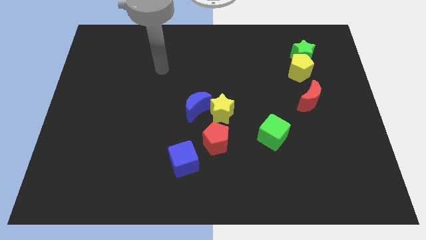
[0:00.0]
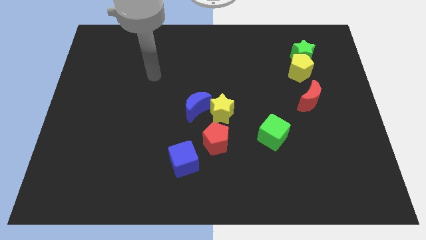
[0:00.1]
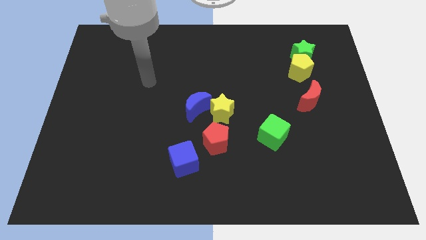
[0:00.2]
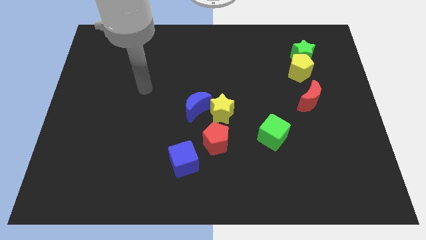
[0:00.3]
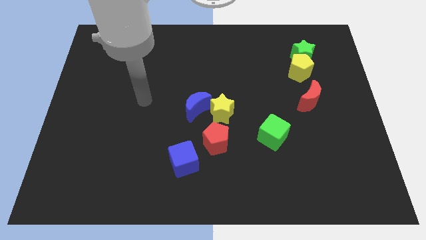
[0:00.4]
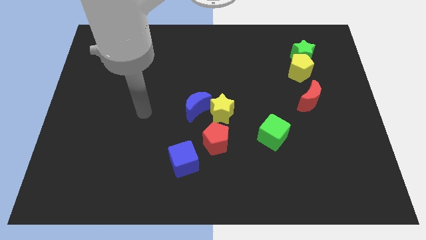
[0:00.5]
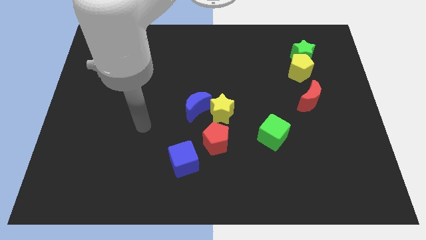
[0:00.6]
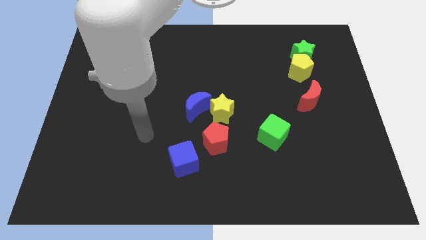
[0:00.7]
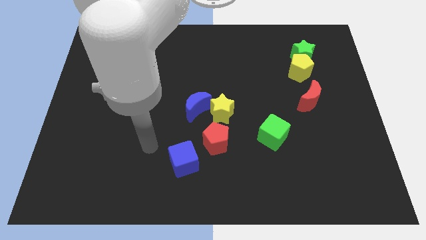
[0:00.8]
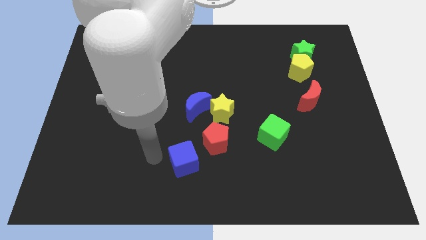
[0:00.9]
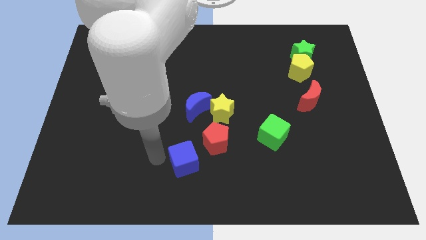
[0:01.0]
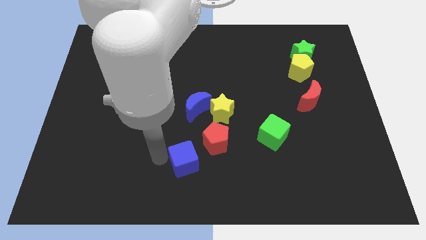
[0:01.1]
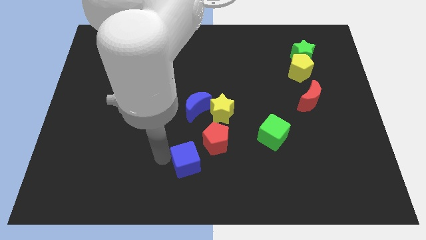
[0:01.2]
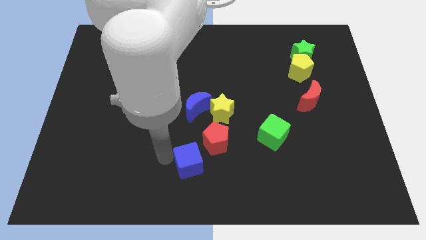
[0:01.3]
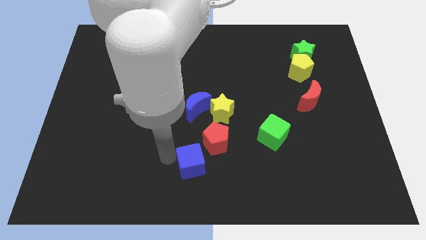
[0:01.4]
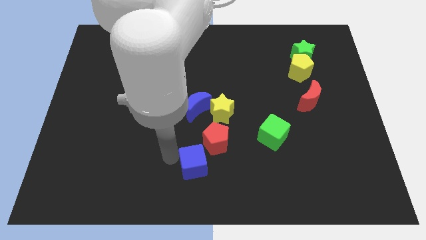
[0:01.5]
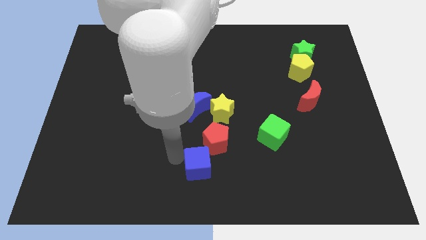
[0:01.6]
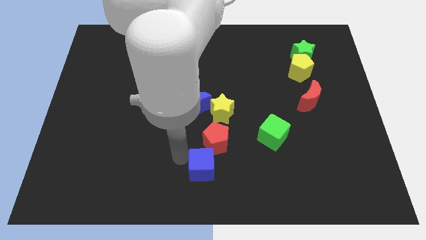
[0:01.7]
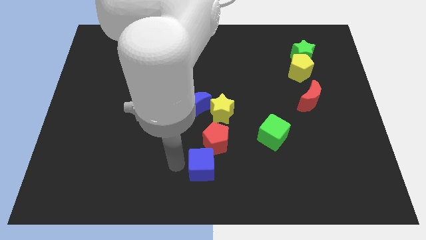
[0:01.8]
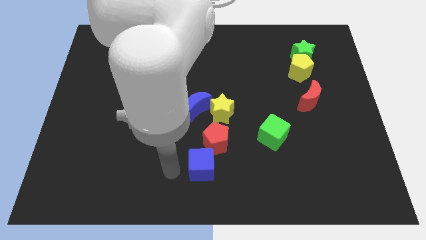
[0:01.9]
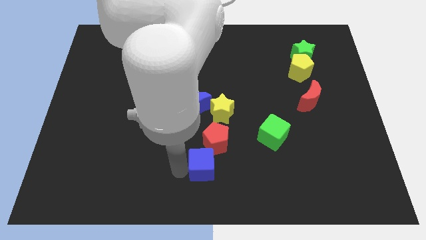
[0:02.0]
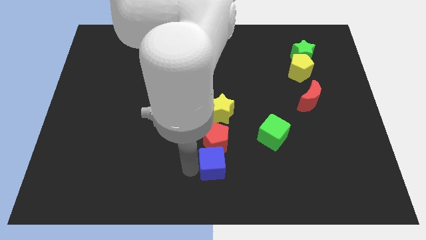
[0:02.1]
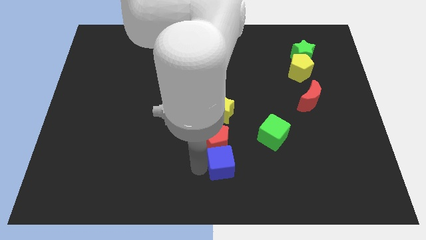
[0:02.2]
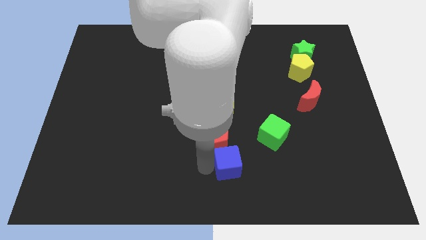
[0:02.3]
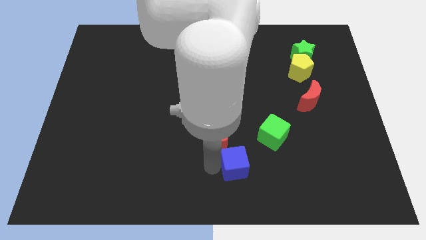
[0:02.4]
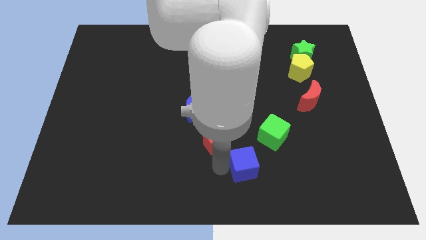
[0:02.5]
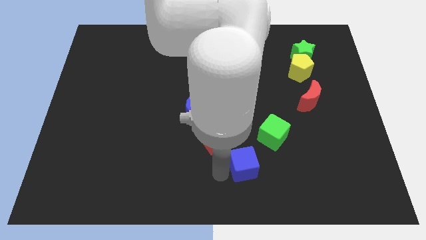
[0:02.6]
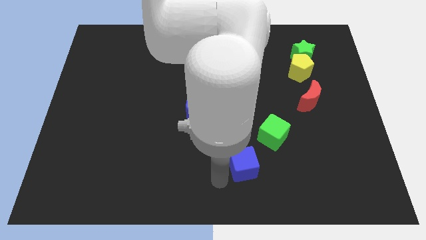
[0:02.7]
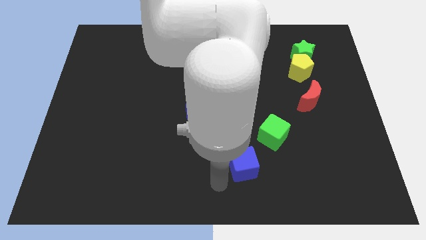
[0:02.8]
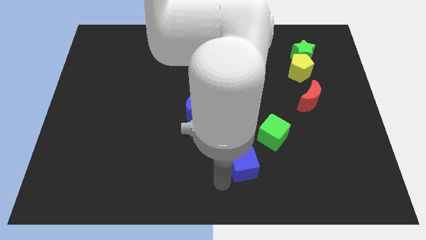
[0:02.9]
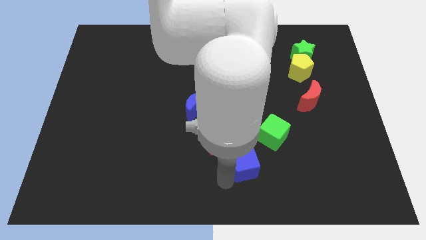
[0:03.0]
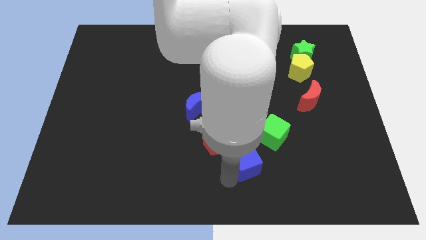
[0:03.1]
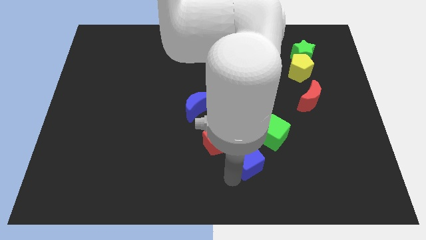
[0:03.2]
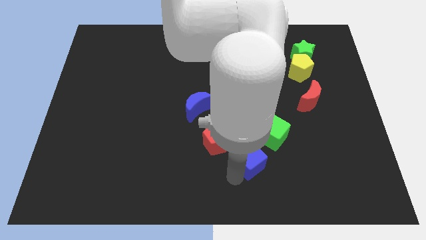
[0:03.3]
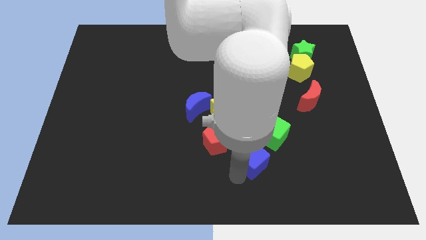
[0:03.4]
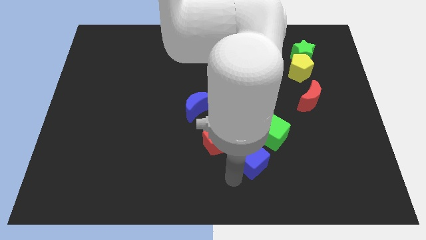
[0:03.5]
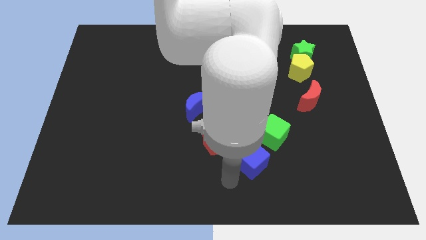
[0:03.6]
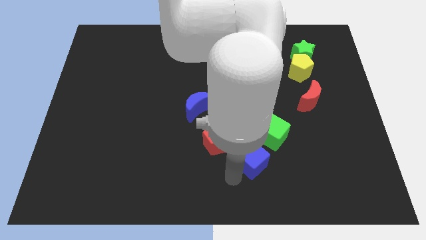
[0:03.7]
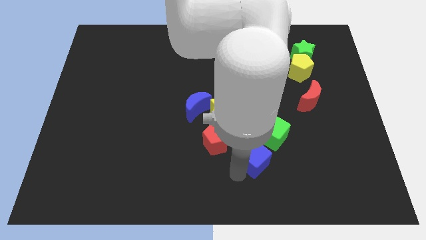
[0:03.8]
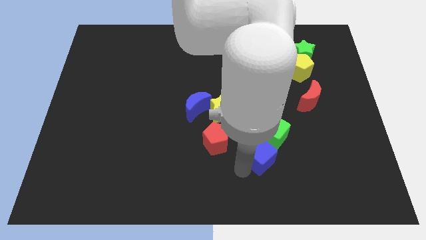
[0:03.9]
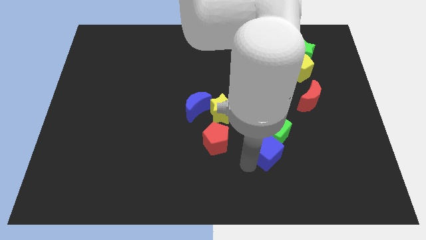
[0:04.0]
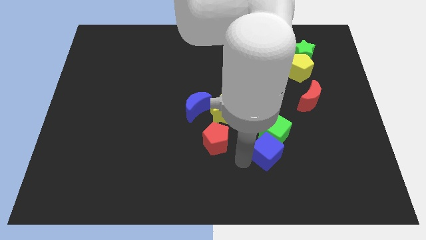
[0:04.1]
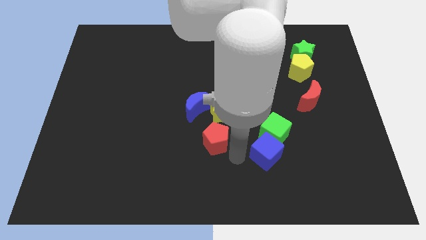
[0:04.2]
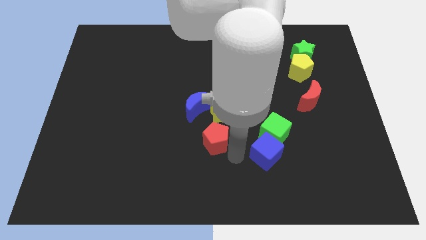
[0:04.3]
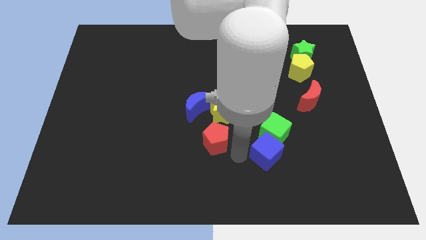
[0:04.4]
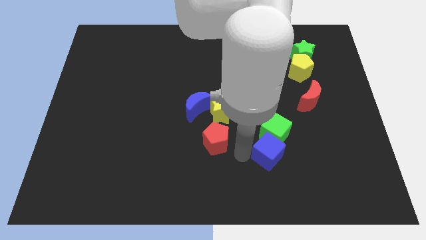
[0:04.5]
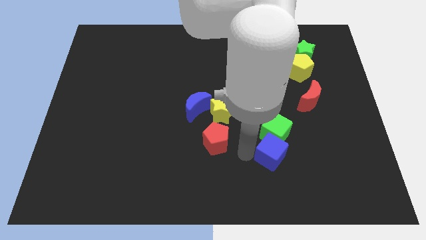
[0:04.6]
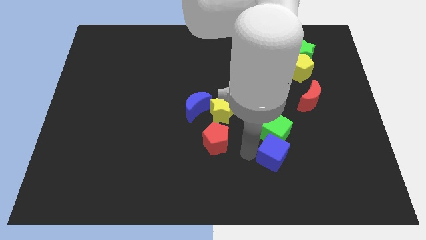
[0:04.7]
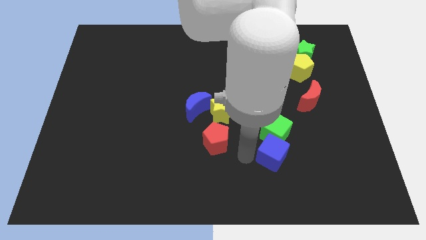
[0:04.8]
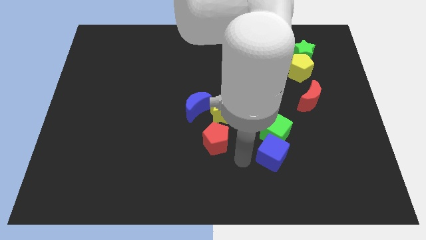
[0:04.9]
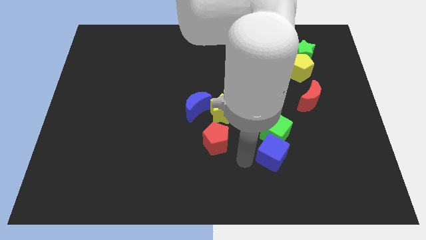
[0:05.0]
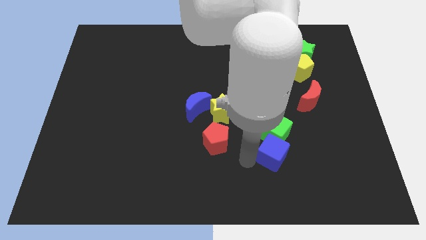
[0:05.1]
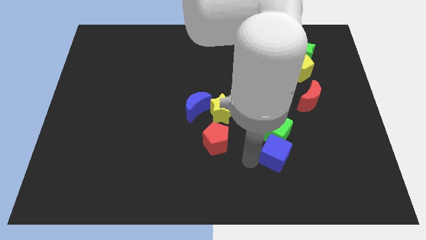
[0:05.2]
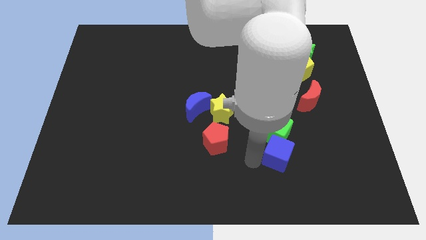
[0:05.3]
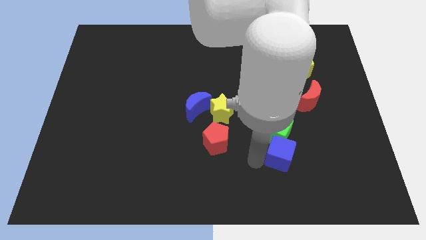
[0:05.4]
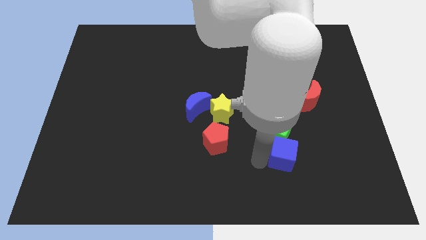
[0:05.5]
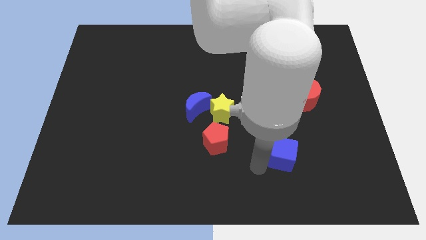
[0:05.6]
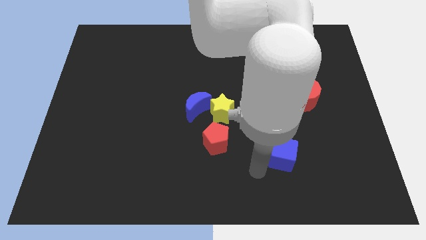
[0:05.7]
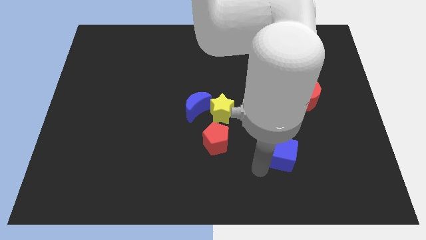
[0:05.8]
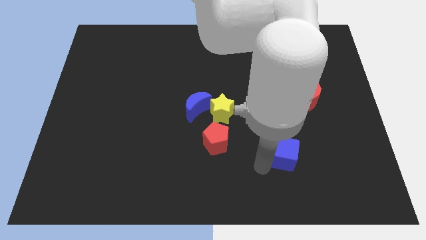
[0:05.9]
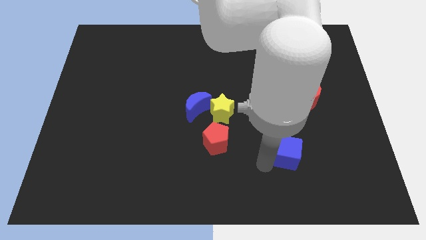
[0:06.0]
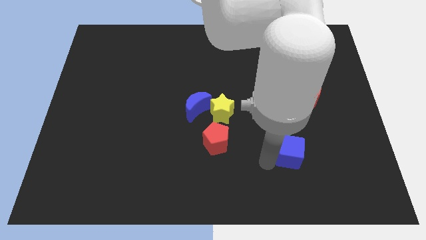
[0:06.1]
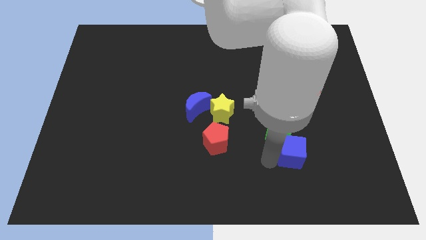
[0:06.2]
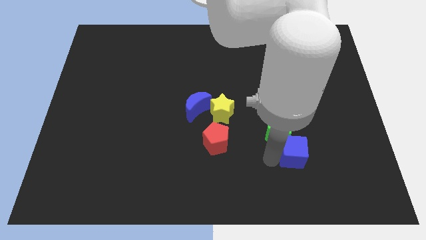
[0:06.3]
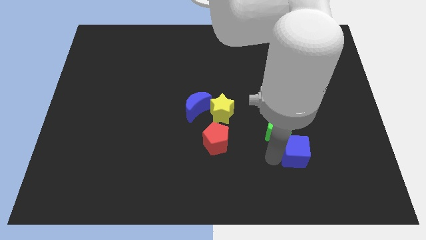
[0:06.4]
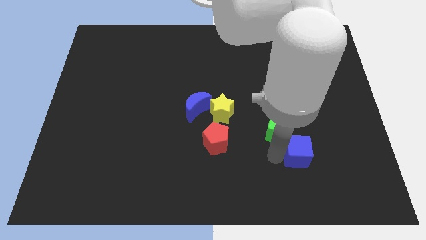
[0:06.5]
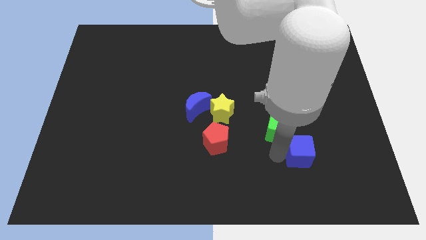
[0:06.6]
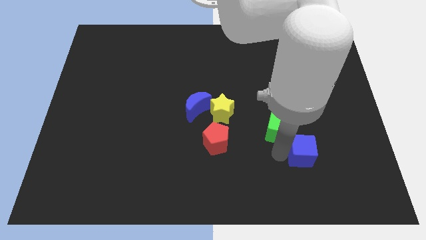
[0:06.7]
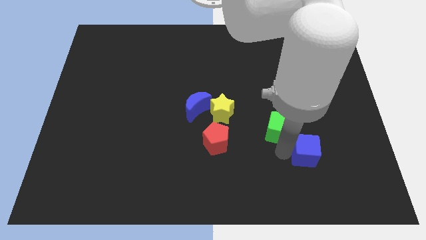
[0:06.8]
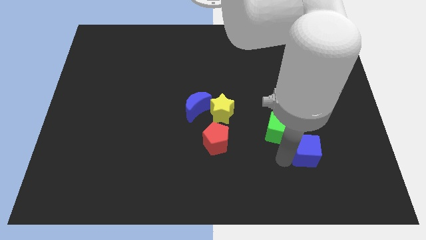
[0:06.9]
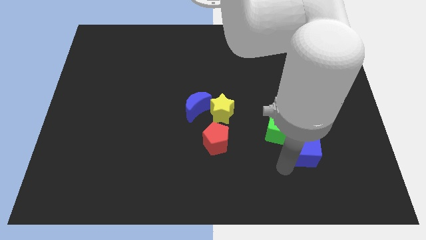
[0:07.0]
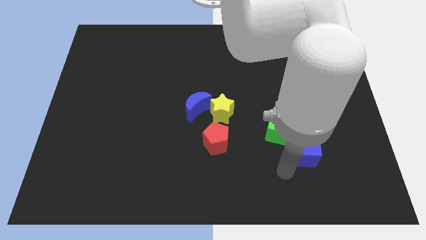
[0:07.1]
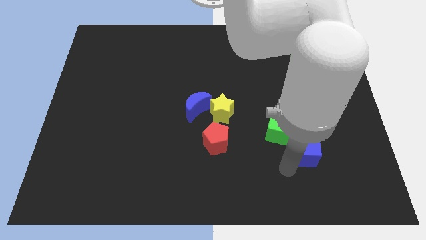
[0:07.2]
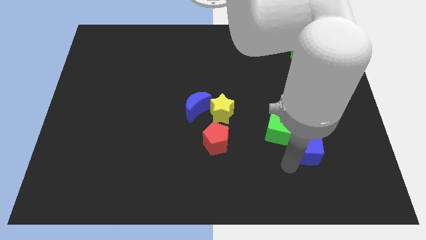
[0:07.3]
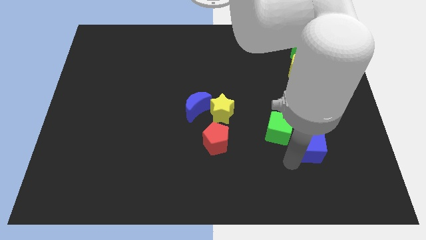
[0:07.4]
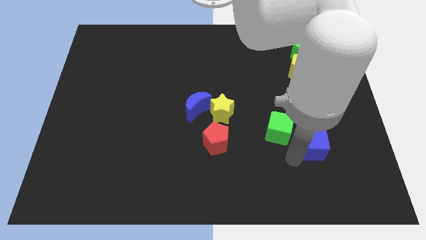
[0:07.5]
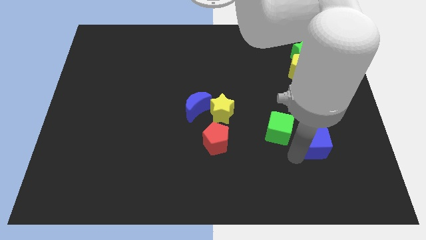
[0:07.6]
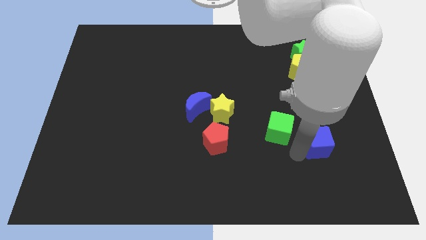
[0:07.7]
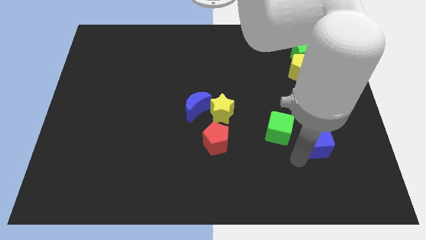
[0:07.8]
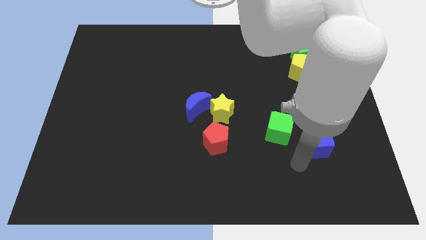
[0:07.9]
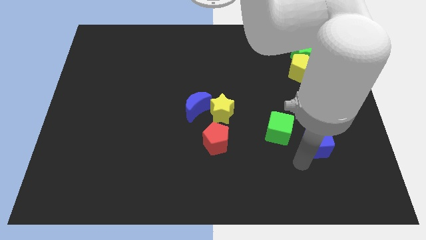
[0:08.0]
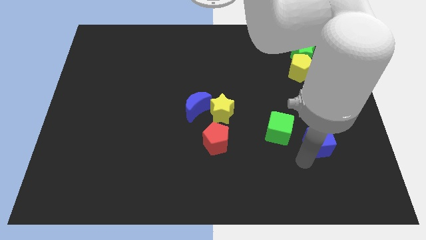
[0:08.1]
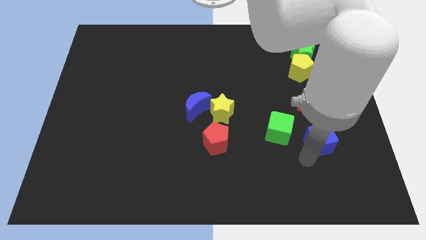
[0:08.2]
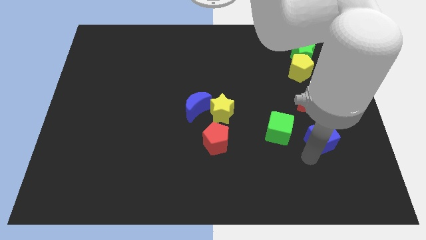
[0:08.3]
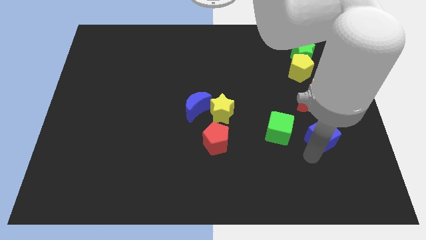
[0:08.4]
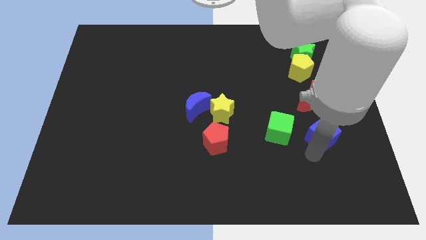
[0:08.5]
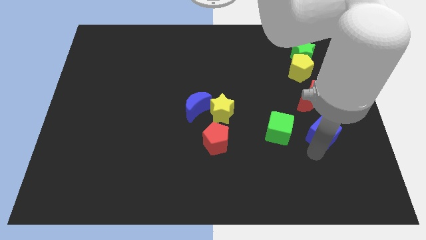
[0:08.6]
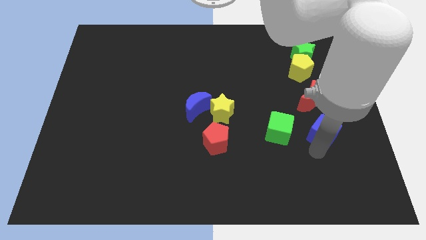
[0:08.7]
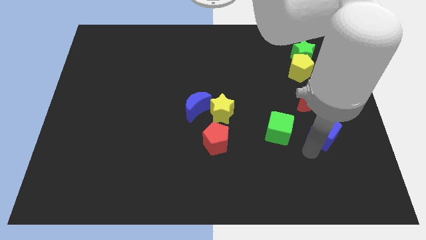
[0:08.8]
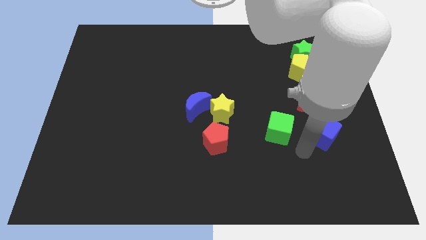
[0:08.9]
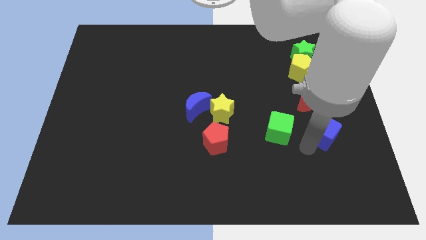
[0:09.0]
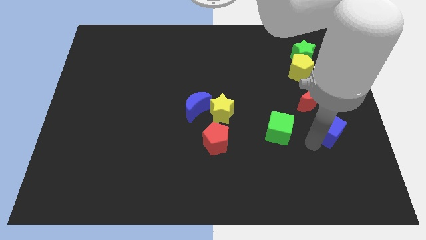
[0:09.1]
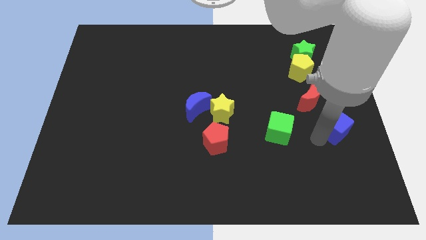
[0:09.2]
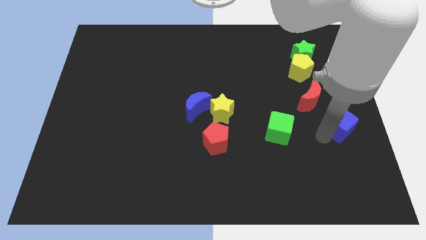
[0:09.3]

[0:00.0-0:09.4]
put the blue cube to the right side of the board
